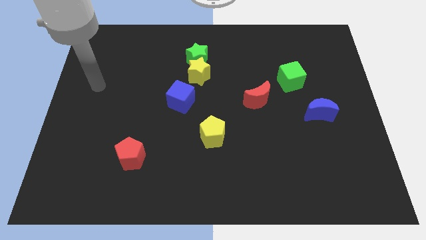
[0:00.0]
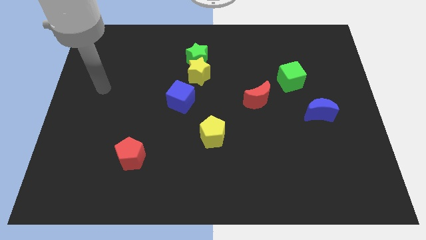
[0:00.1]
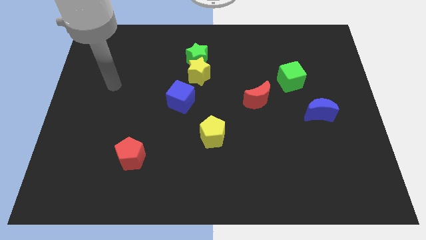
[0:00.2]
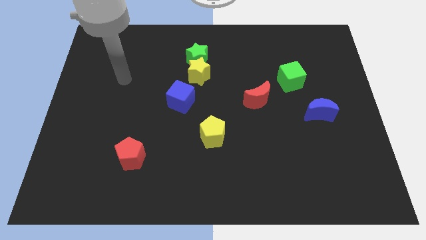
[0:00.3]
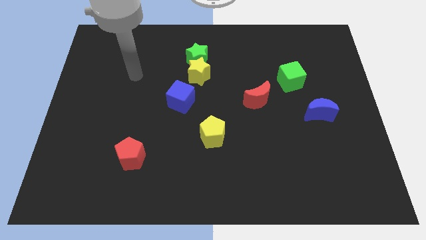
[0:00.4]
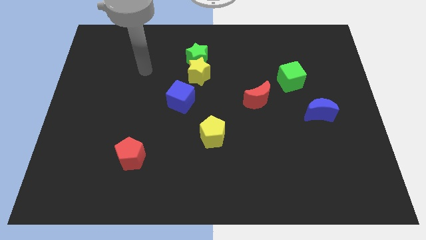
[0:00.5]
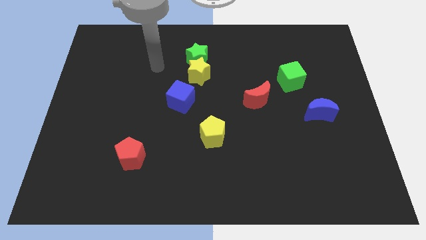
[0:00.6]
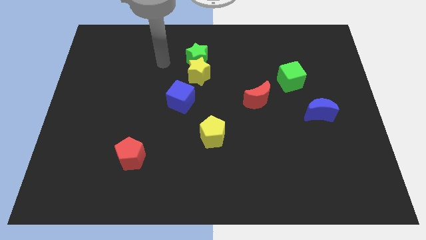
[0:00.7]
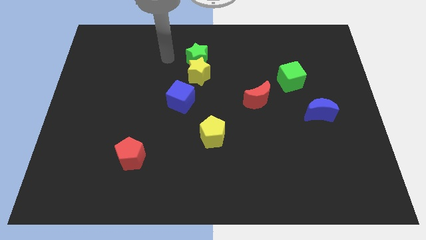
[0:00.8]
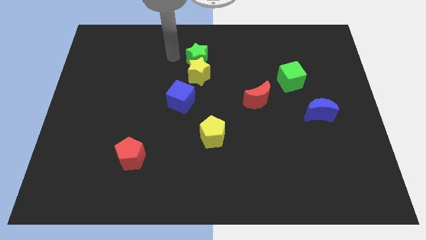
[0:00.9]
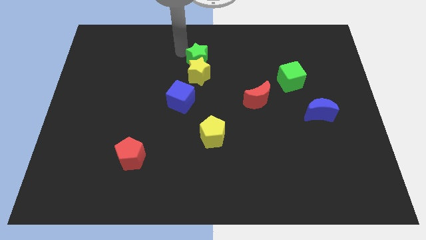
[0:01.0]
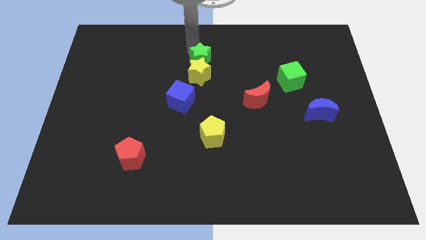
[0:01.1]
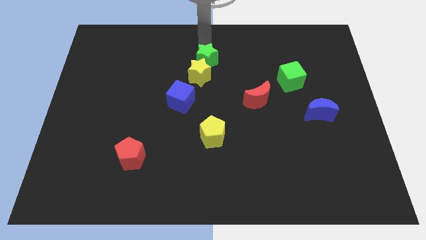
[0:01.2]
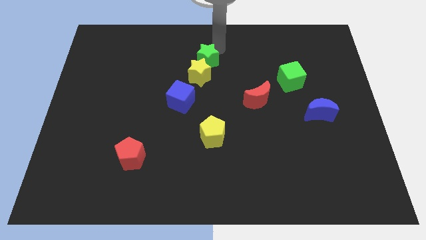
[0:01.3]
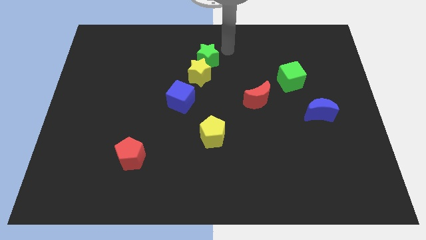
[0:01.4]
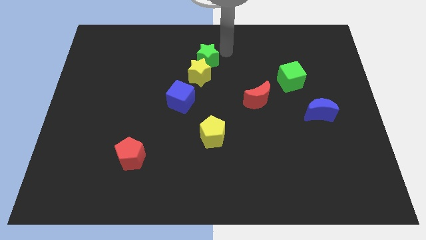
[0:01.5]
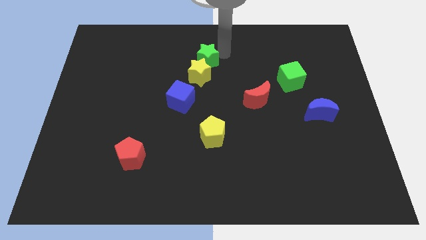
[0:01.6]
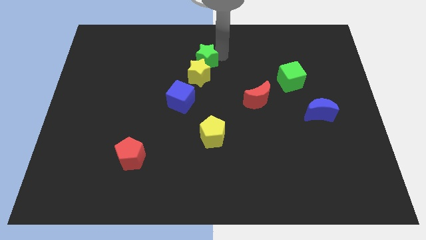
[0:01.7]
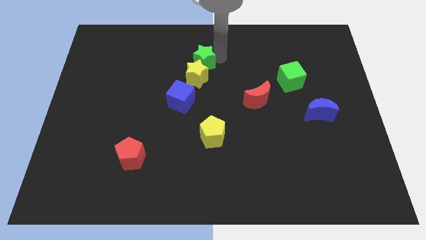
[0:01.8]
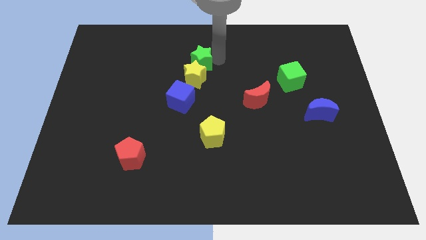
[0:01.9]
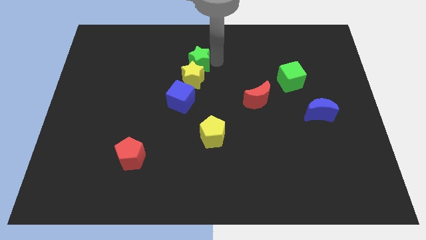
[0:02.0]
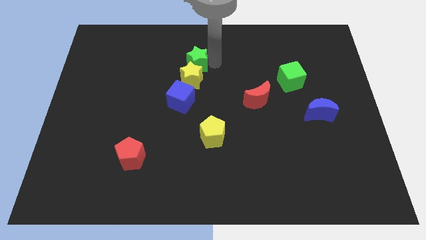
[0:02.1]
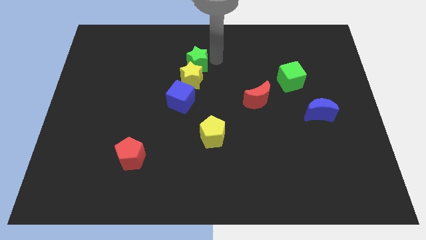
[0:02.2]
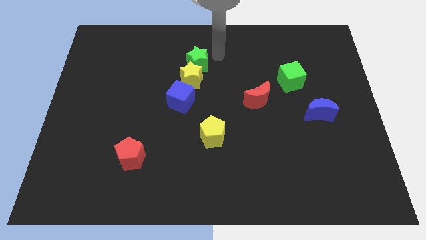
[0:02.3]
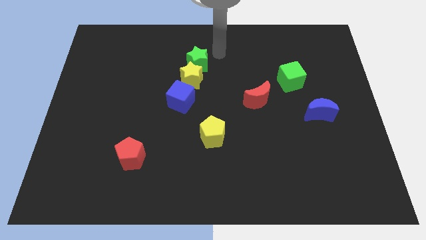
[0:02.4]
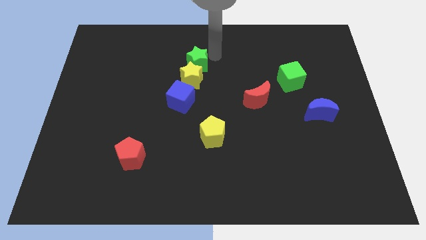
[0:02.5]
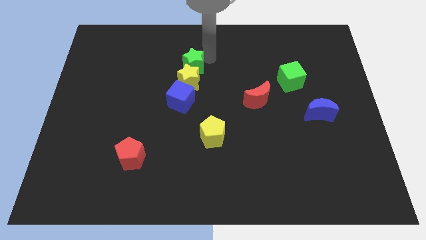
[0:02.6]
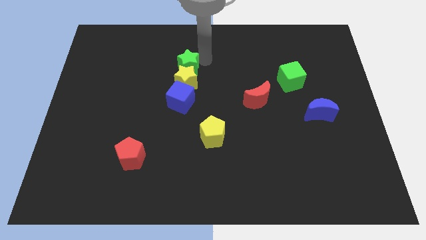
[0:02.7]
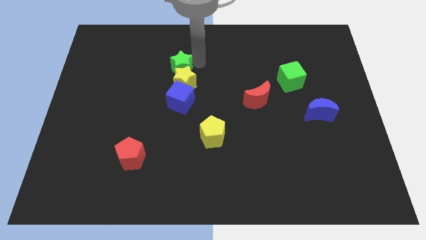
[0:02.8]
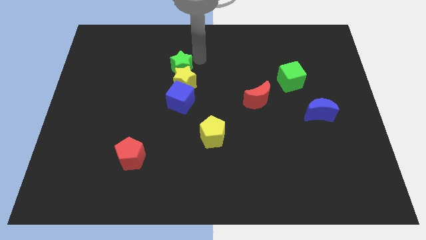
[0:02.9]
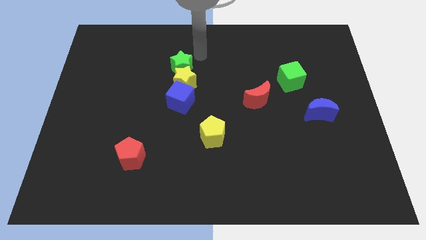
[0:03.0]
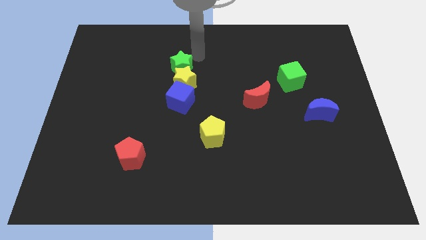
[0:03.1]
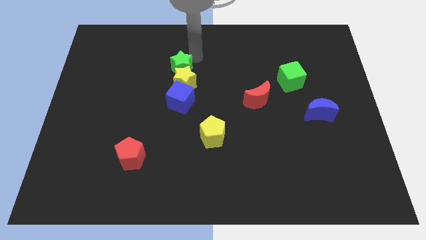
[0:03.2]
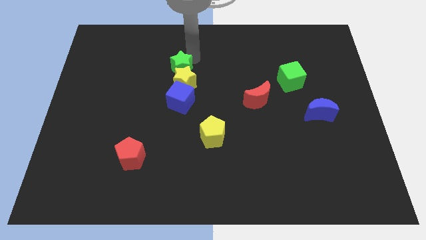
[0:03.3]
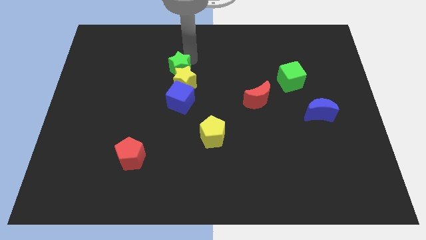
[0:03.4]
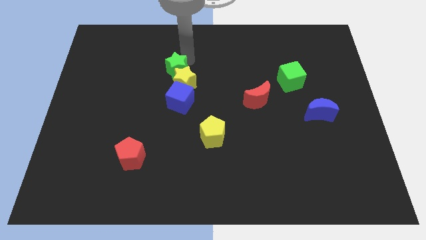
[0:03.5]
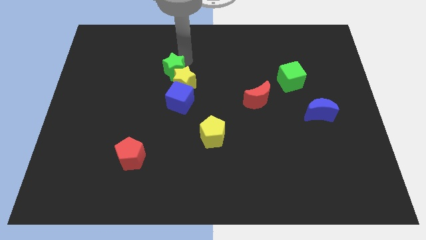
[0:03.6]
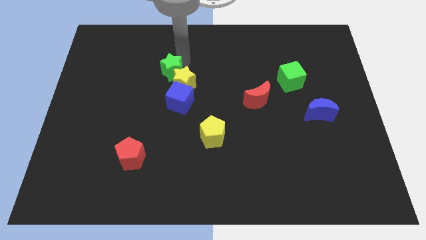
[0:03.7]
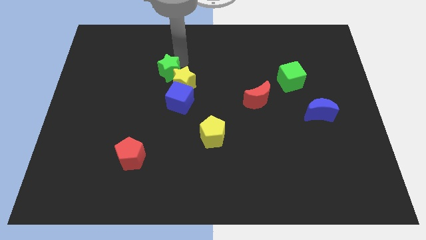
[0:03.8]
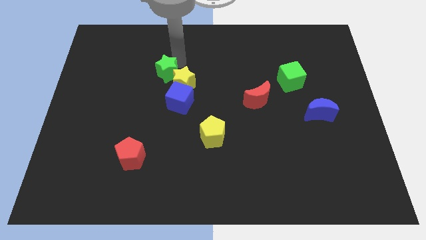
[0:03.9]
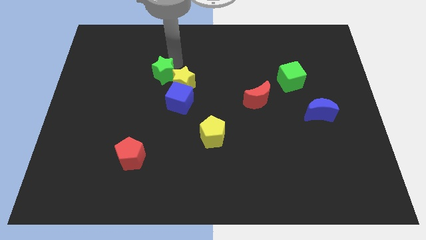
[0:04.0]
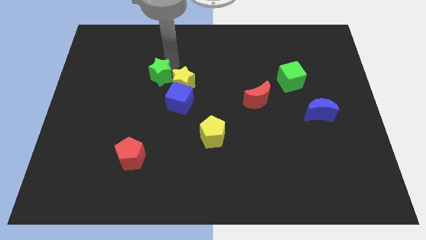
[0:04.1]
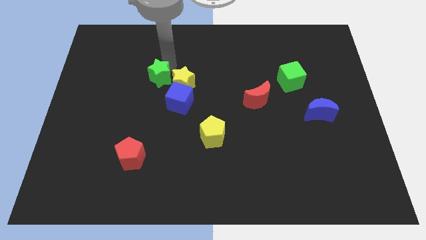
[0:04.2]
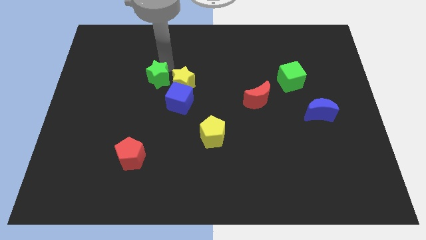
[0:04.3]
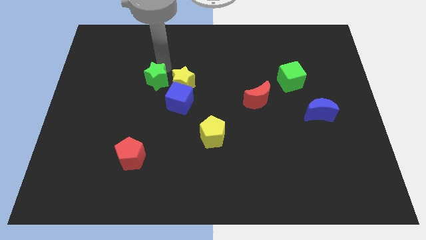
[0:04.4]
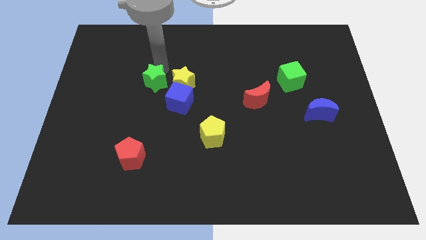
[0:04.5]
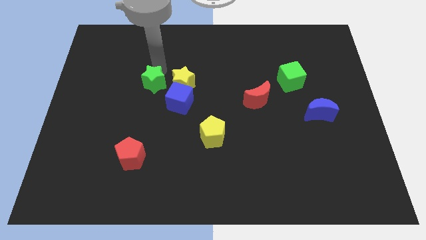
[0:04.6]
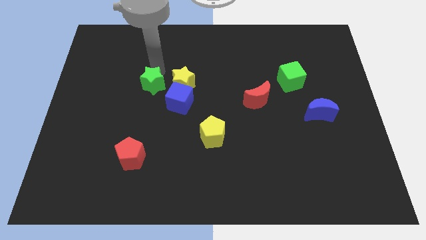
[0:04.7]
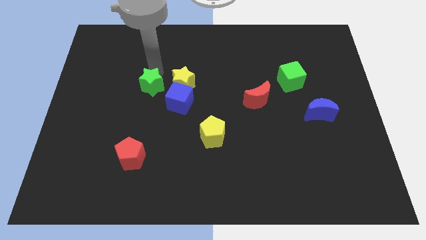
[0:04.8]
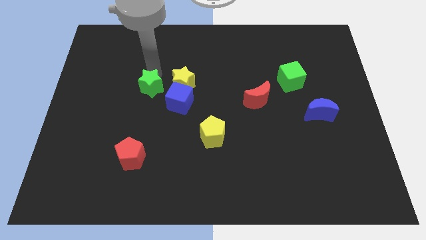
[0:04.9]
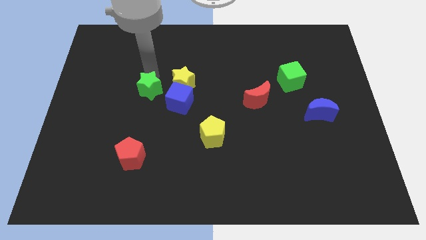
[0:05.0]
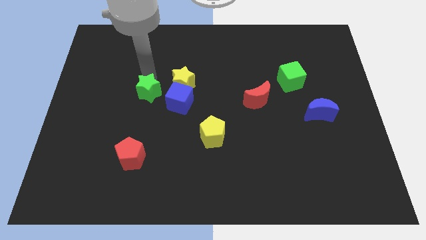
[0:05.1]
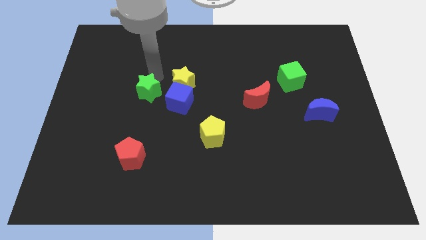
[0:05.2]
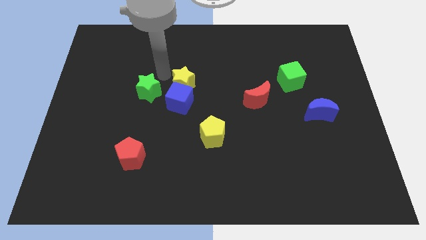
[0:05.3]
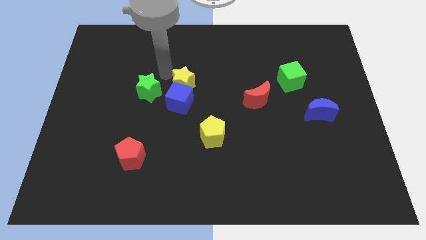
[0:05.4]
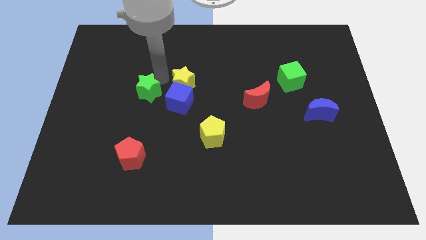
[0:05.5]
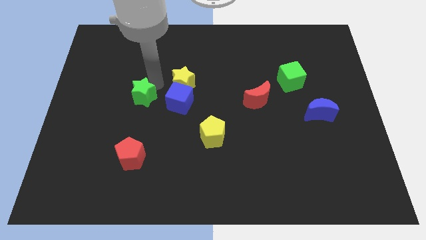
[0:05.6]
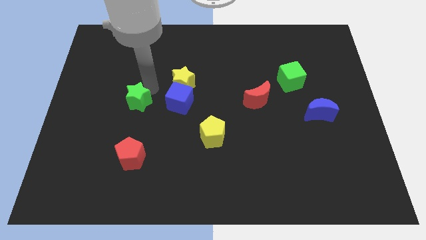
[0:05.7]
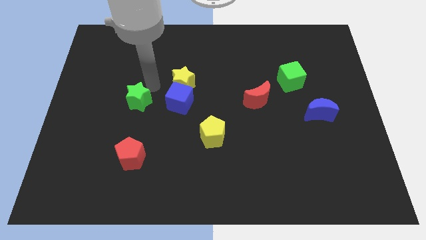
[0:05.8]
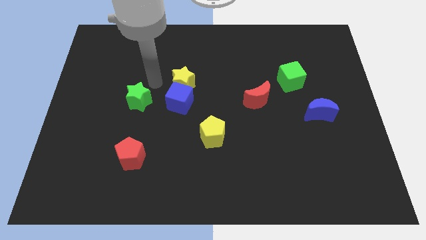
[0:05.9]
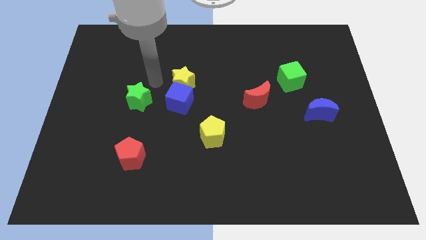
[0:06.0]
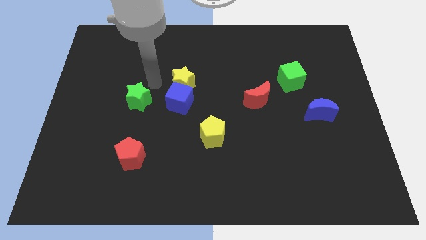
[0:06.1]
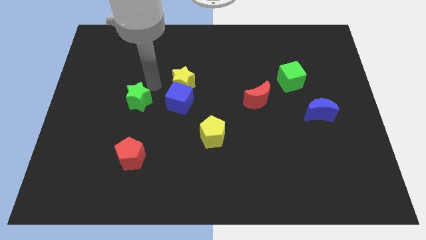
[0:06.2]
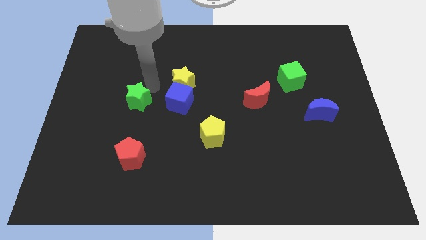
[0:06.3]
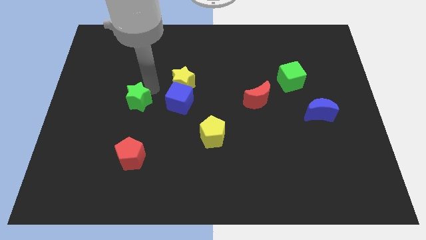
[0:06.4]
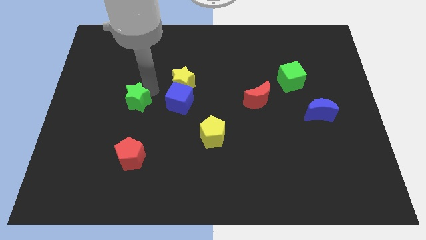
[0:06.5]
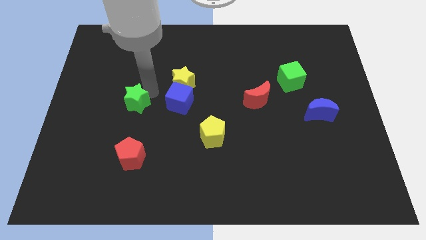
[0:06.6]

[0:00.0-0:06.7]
slide the green star downwards and then left

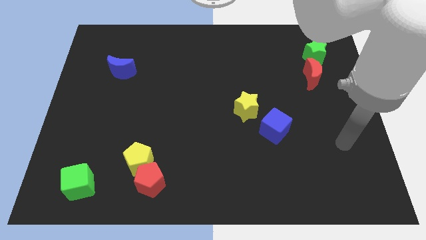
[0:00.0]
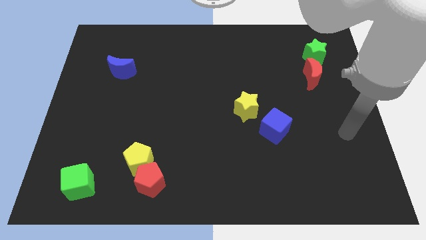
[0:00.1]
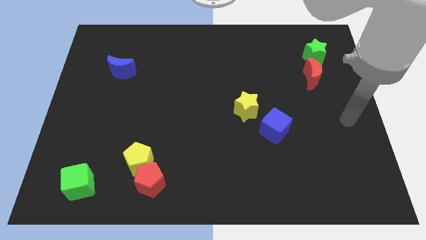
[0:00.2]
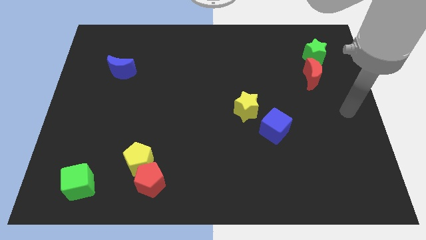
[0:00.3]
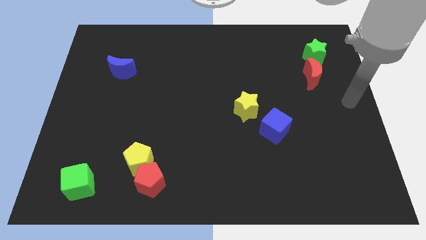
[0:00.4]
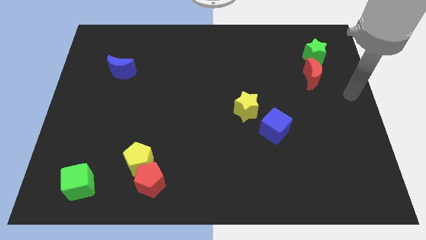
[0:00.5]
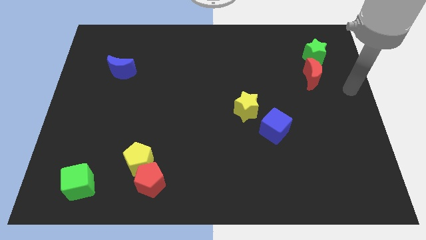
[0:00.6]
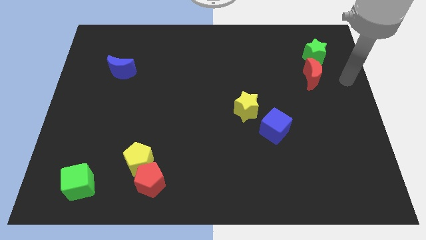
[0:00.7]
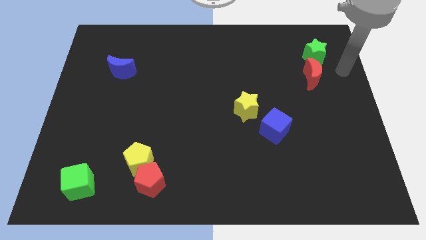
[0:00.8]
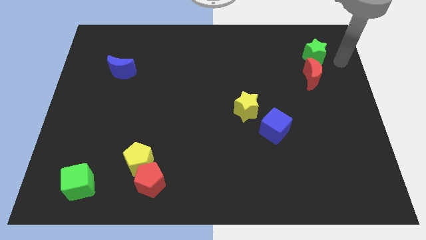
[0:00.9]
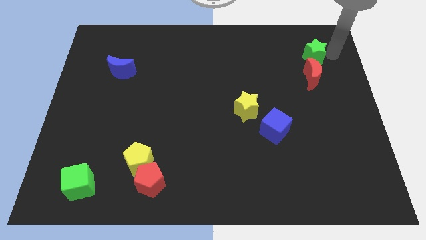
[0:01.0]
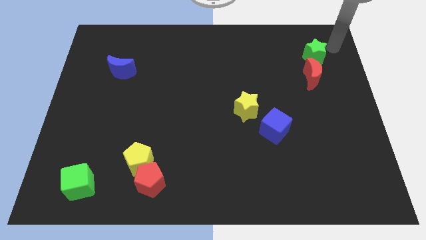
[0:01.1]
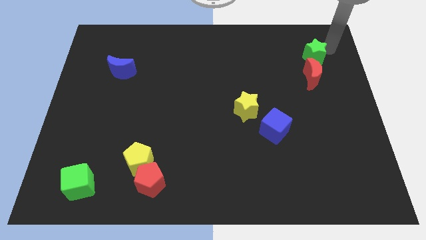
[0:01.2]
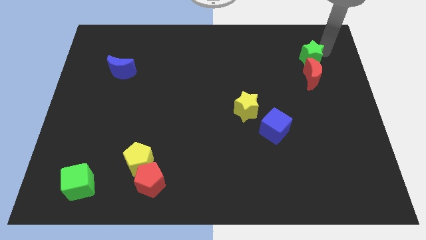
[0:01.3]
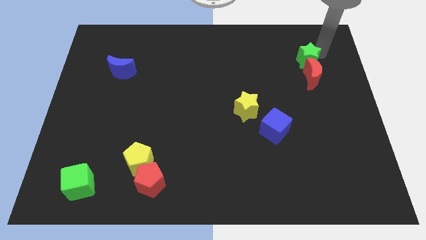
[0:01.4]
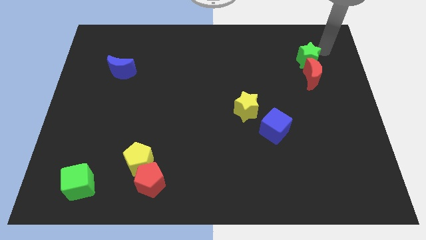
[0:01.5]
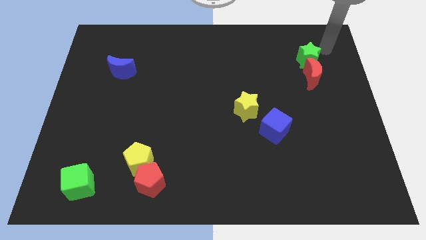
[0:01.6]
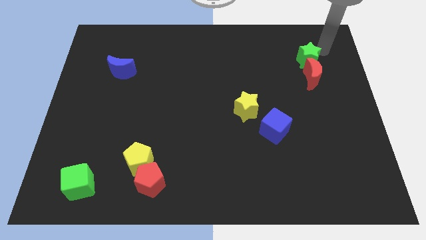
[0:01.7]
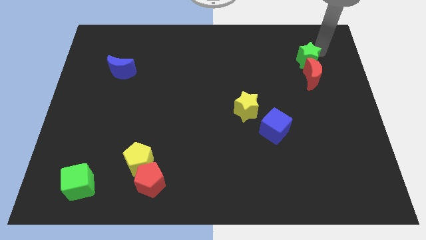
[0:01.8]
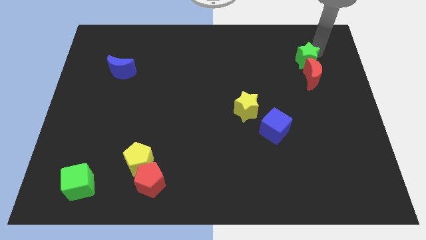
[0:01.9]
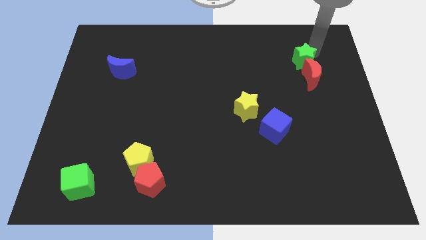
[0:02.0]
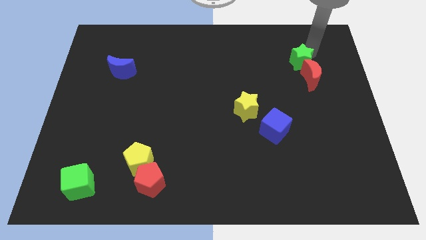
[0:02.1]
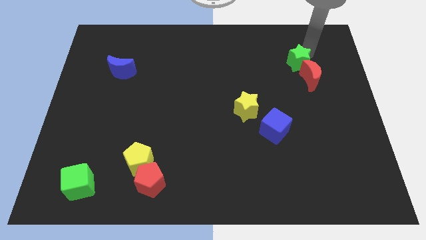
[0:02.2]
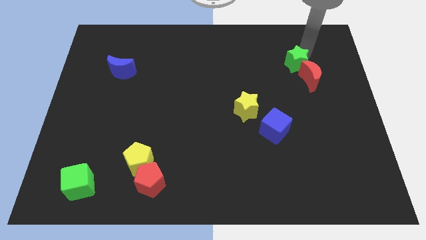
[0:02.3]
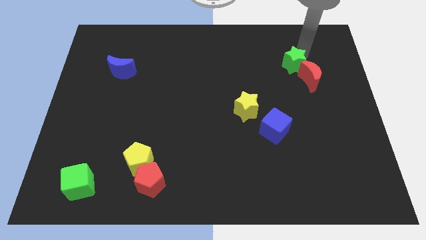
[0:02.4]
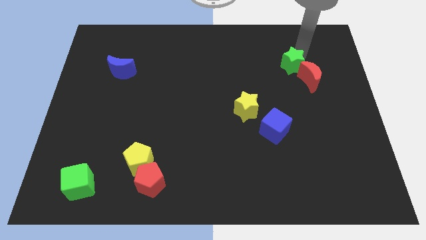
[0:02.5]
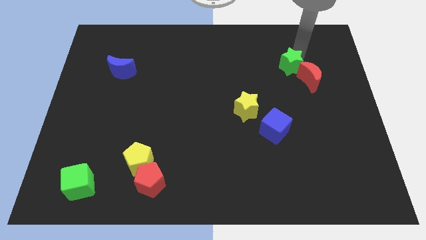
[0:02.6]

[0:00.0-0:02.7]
slide the green star a little downwards and left diagonally
